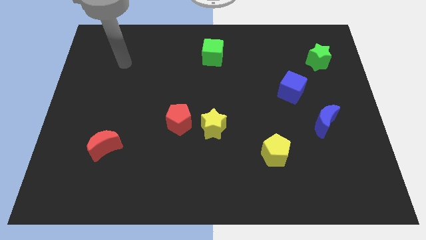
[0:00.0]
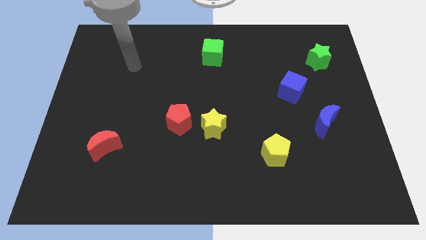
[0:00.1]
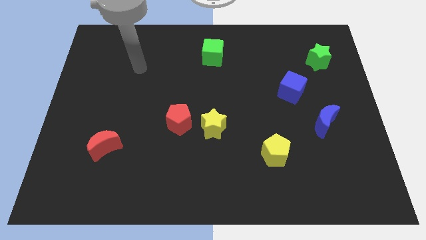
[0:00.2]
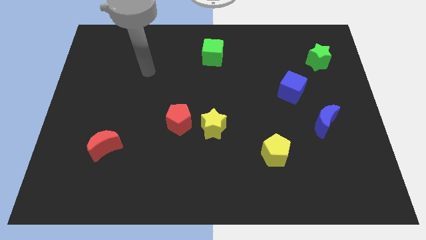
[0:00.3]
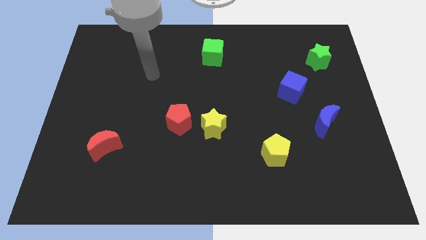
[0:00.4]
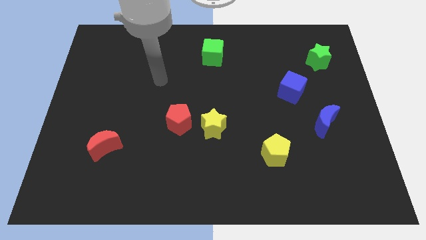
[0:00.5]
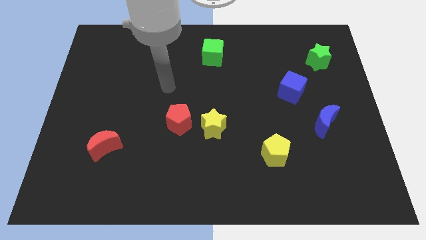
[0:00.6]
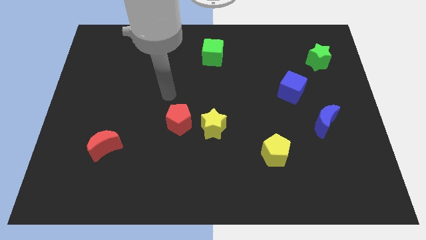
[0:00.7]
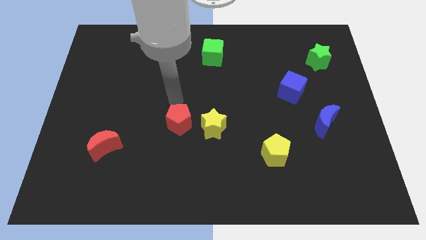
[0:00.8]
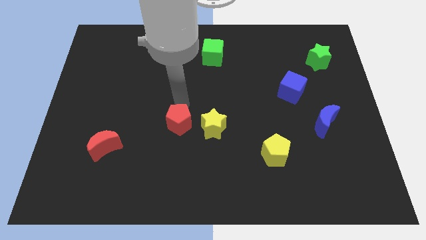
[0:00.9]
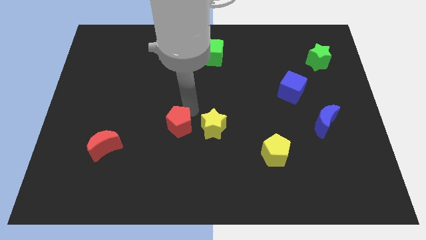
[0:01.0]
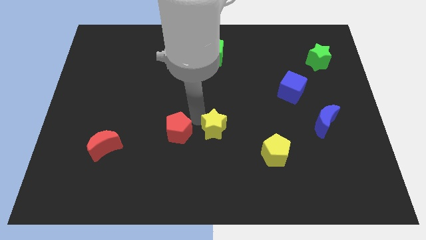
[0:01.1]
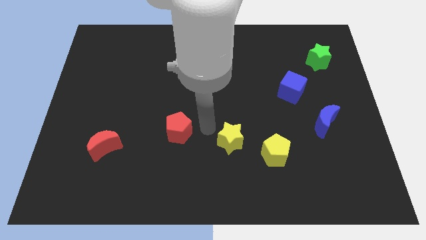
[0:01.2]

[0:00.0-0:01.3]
move the red pentagon away from the yellow star

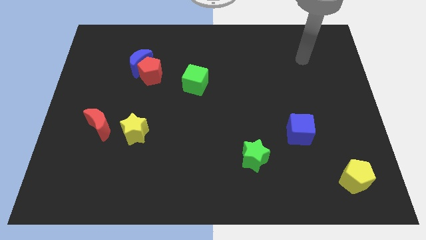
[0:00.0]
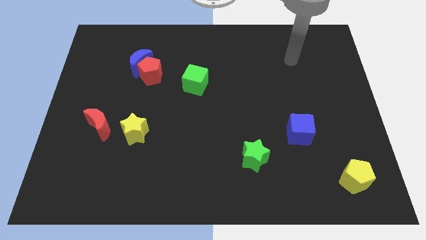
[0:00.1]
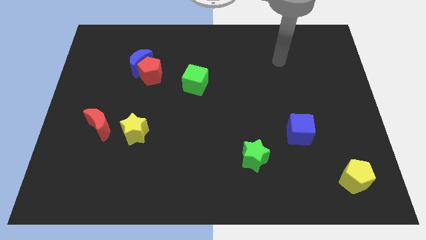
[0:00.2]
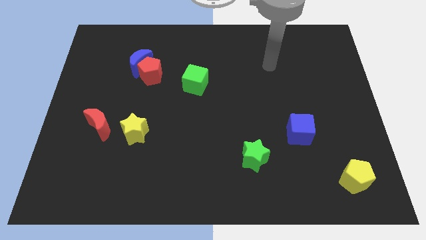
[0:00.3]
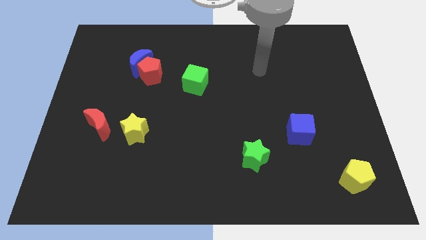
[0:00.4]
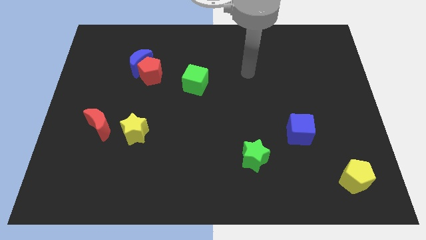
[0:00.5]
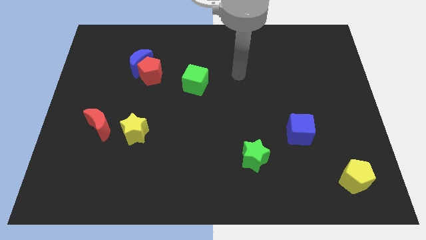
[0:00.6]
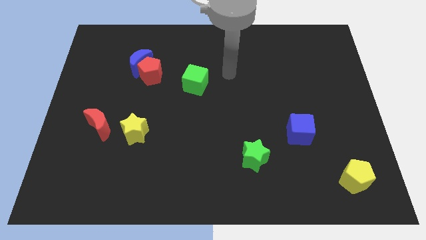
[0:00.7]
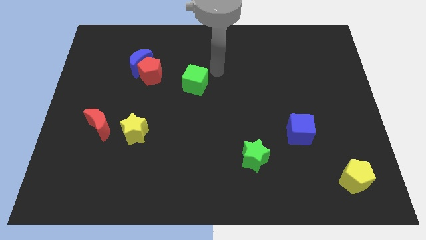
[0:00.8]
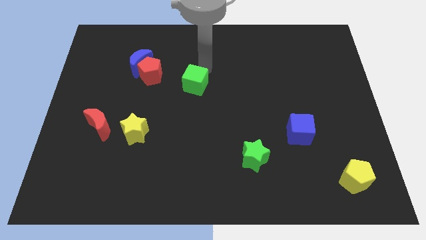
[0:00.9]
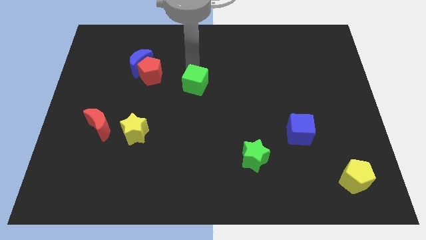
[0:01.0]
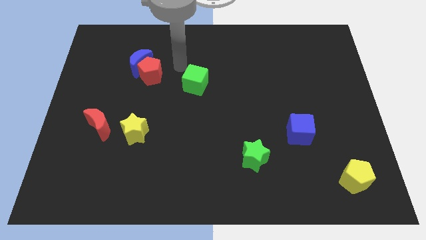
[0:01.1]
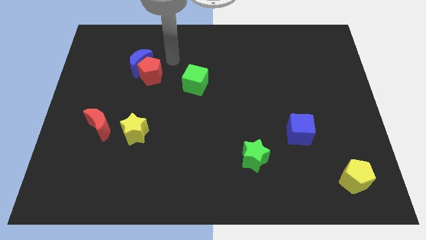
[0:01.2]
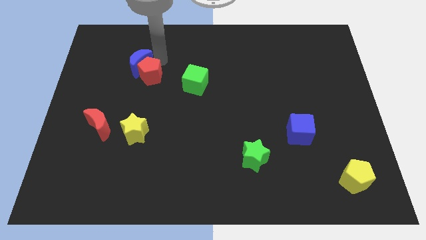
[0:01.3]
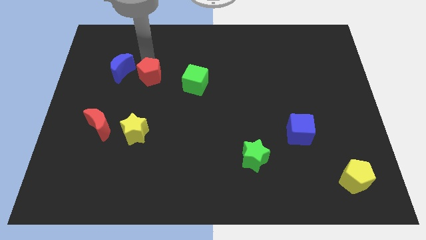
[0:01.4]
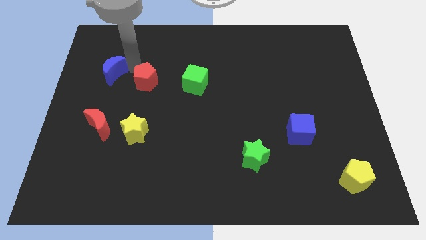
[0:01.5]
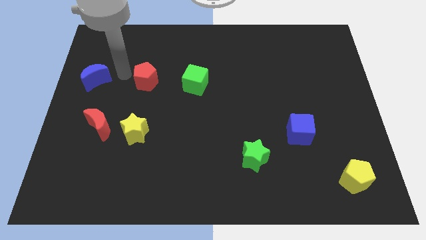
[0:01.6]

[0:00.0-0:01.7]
pull the red pentagon apart from the blue moon

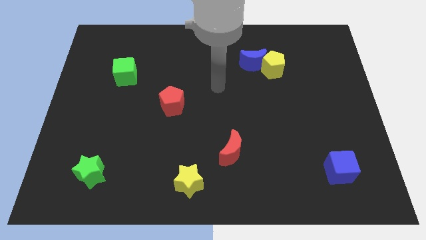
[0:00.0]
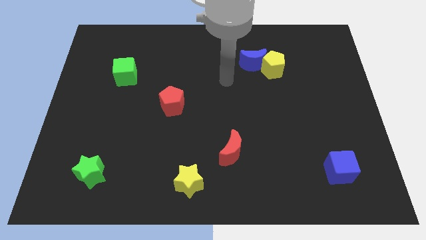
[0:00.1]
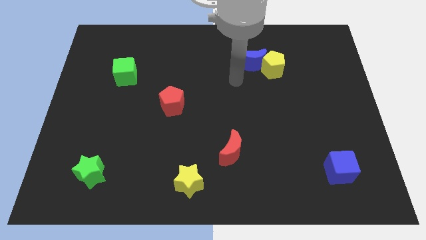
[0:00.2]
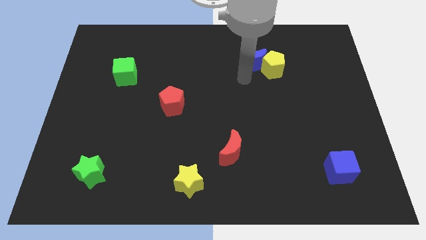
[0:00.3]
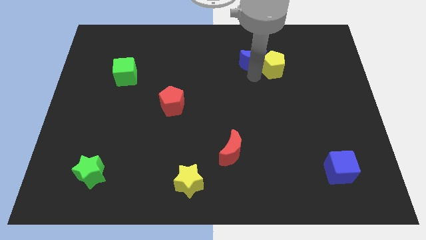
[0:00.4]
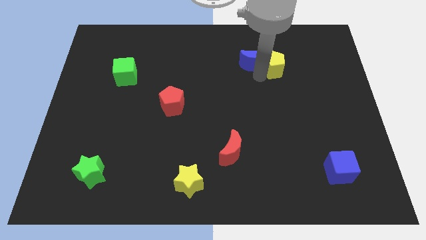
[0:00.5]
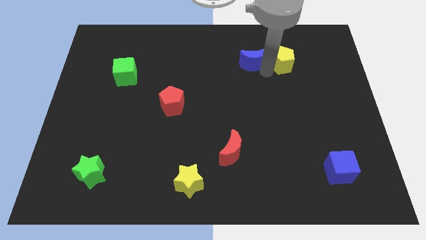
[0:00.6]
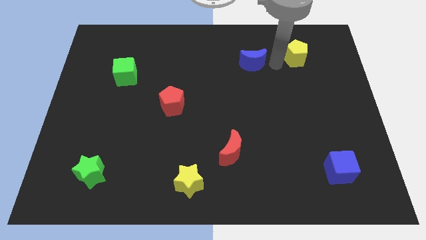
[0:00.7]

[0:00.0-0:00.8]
pull the blue moon apart from the yellow pentagon

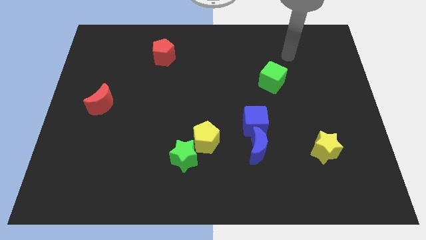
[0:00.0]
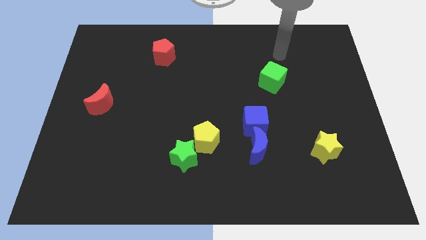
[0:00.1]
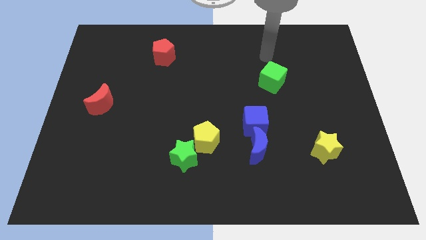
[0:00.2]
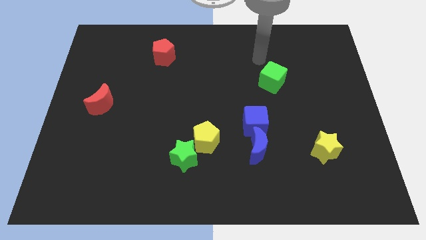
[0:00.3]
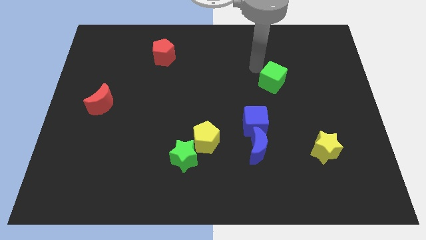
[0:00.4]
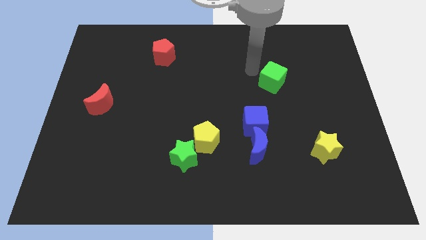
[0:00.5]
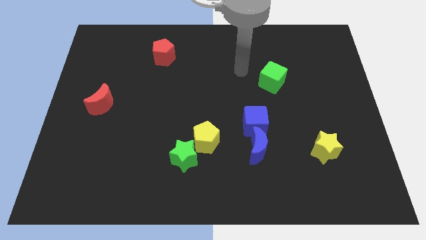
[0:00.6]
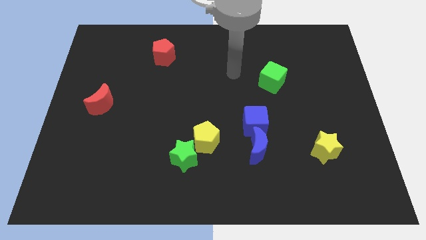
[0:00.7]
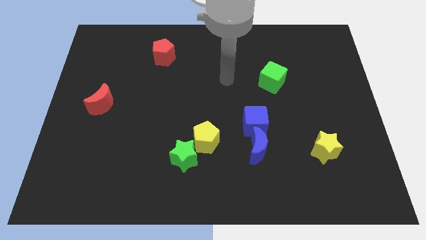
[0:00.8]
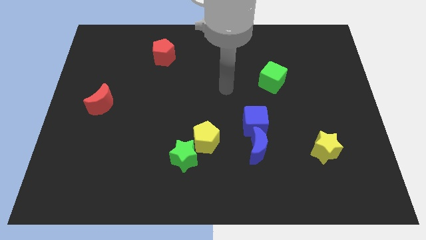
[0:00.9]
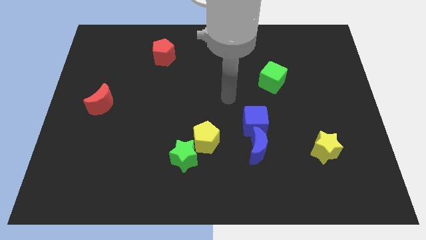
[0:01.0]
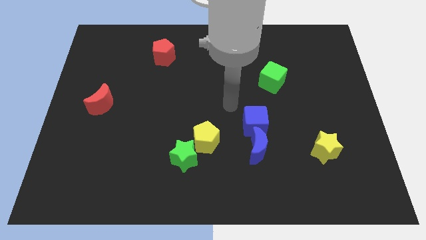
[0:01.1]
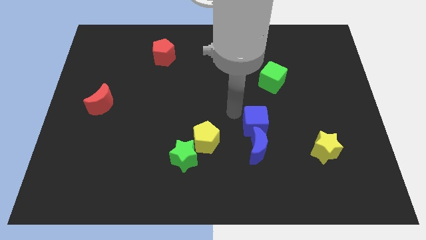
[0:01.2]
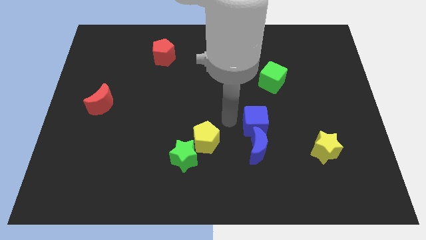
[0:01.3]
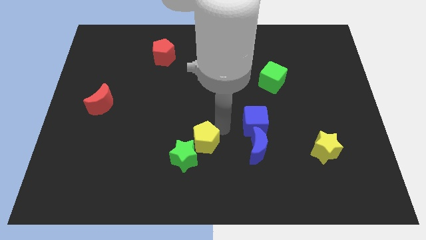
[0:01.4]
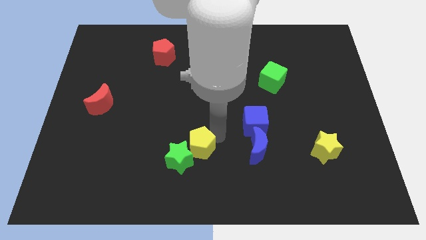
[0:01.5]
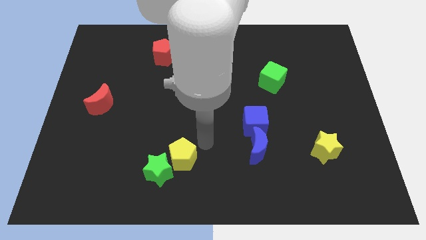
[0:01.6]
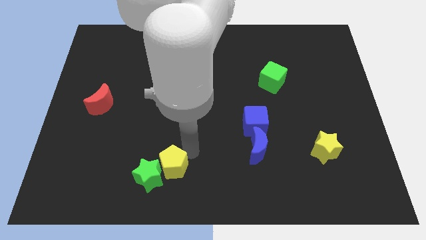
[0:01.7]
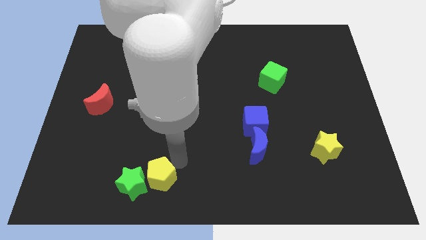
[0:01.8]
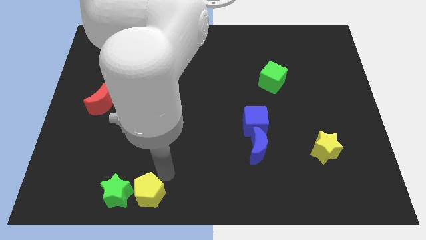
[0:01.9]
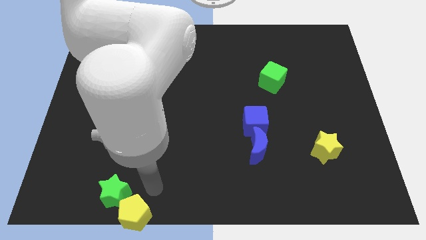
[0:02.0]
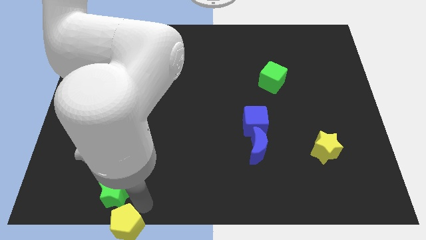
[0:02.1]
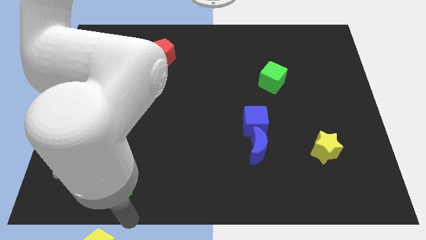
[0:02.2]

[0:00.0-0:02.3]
separate the green star from the yellow pentagon

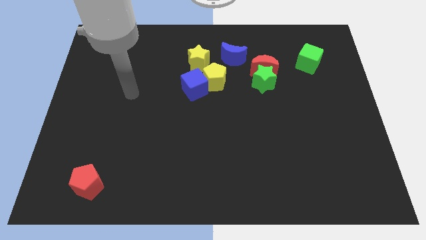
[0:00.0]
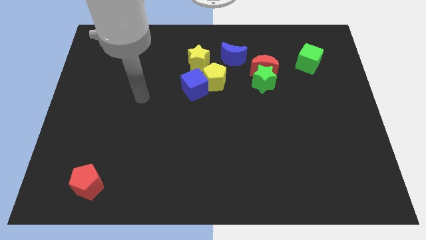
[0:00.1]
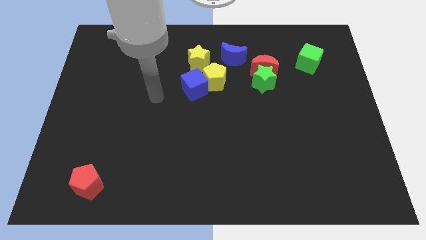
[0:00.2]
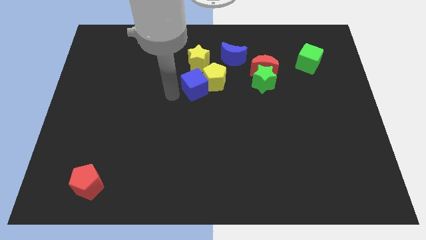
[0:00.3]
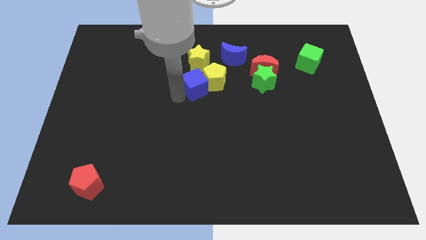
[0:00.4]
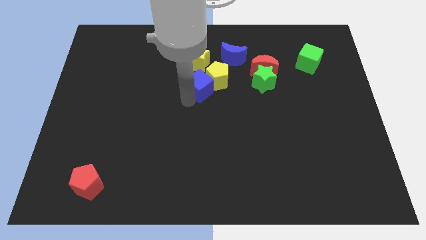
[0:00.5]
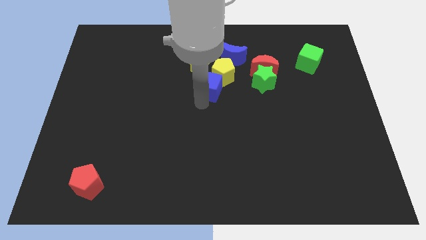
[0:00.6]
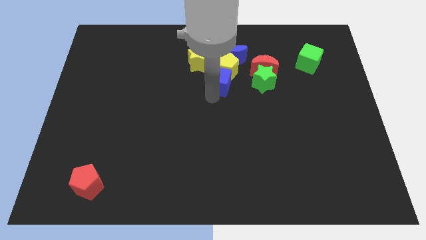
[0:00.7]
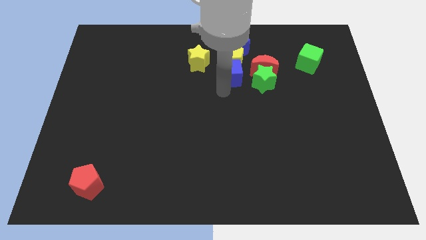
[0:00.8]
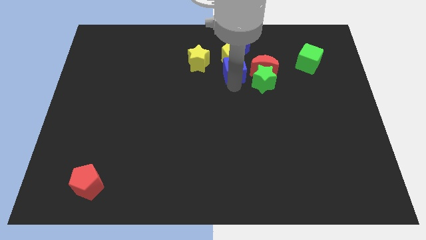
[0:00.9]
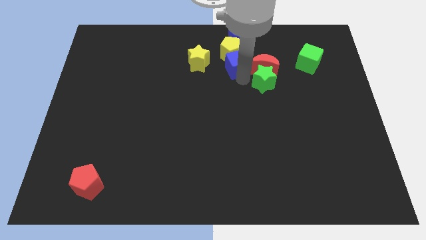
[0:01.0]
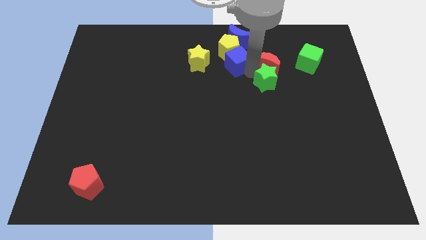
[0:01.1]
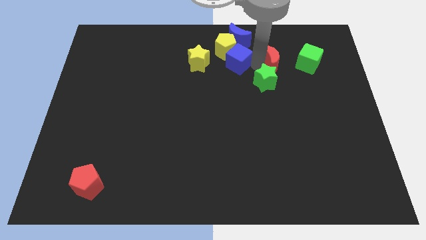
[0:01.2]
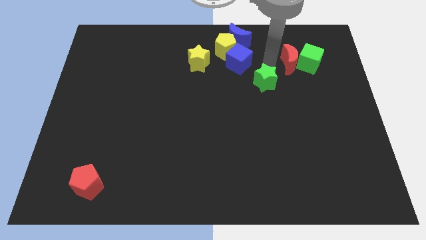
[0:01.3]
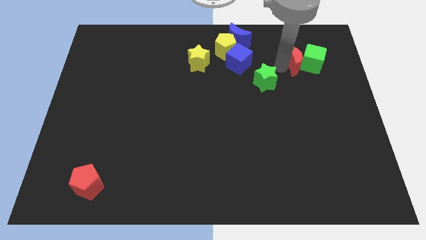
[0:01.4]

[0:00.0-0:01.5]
pull the green star apart from the red moon

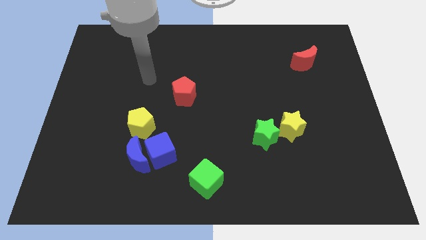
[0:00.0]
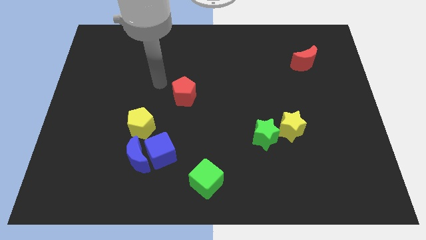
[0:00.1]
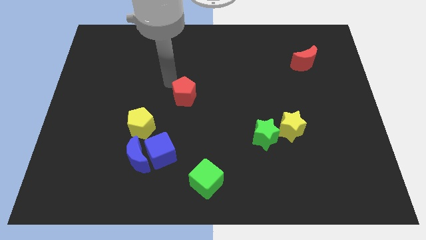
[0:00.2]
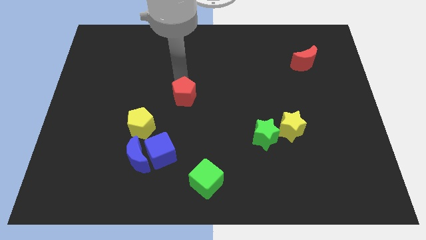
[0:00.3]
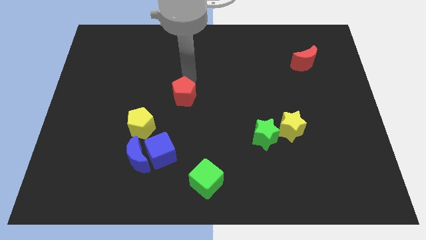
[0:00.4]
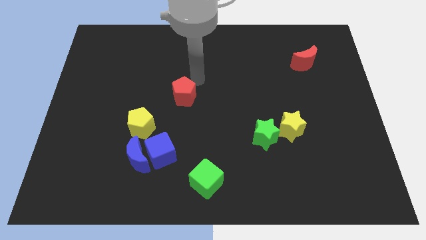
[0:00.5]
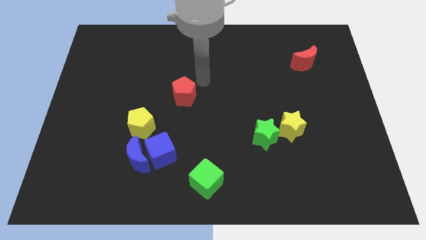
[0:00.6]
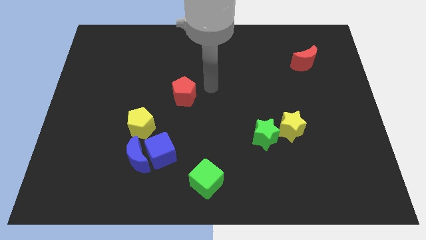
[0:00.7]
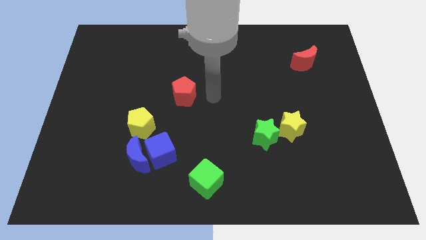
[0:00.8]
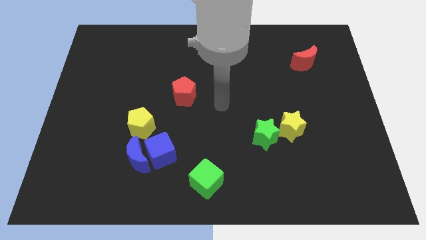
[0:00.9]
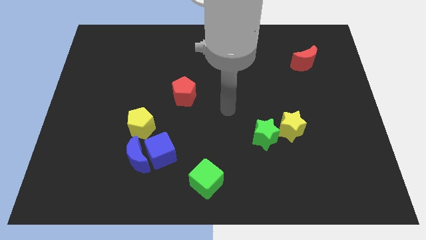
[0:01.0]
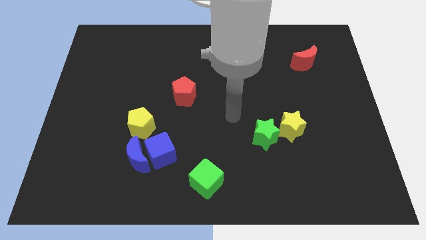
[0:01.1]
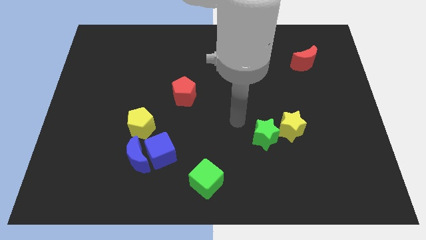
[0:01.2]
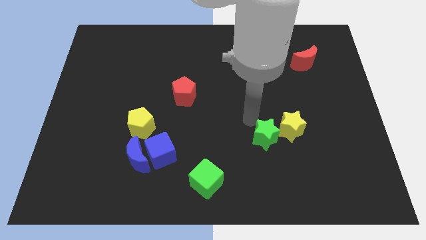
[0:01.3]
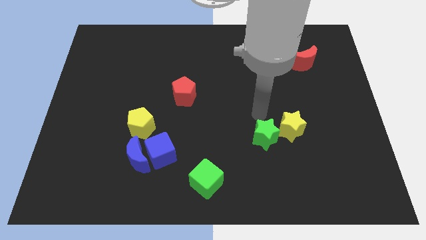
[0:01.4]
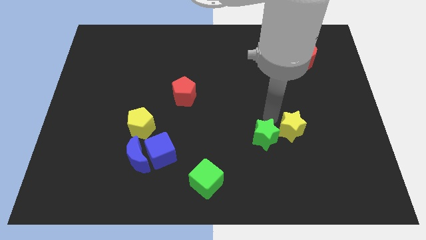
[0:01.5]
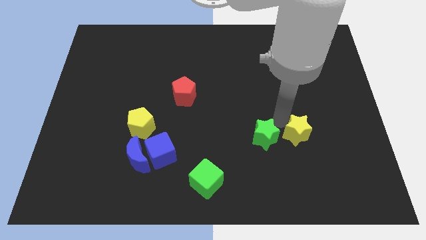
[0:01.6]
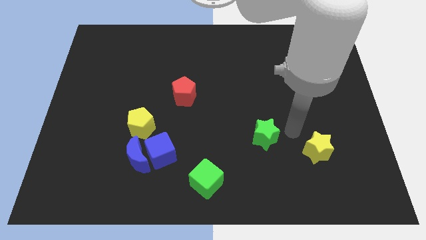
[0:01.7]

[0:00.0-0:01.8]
separate the green star from the yellow star
